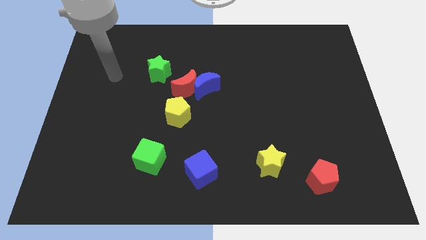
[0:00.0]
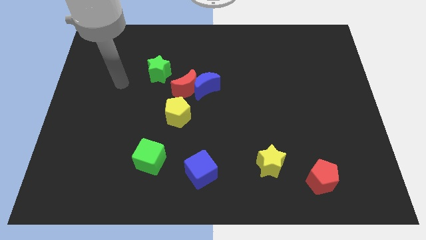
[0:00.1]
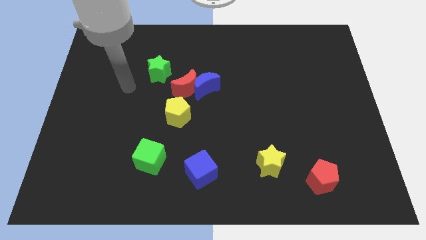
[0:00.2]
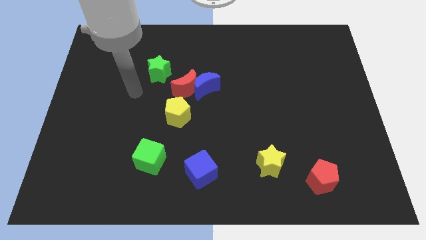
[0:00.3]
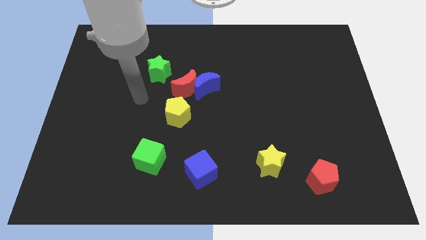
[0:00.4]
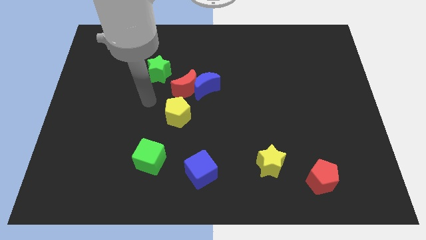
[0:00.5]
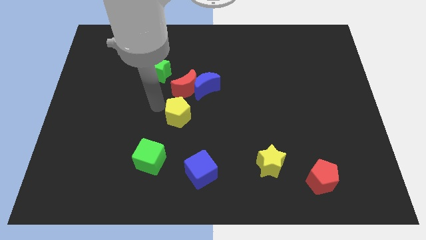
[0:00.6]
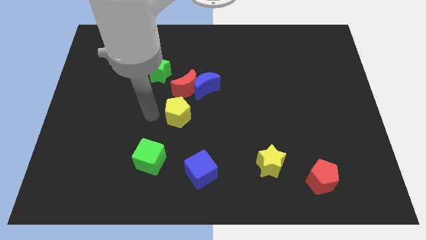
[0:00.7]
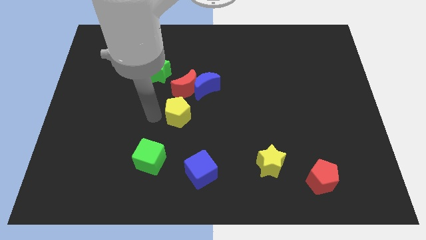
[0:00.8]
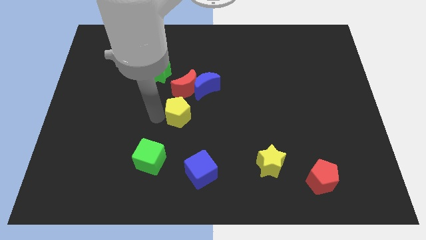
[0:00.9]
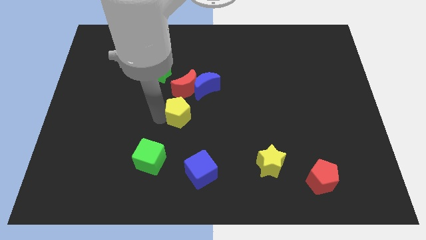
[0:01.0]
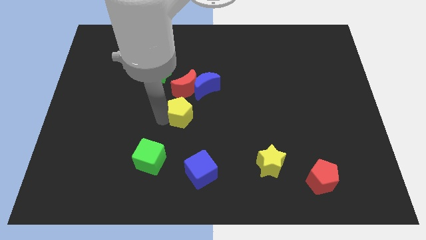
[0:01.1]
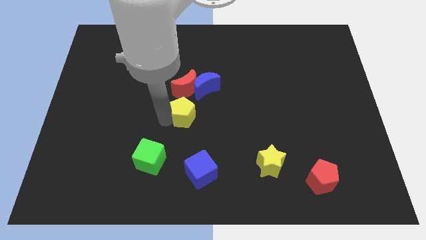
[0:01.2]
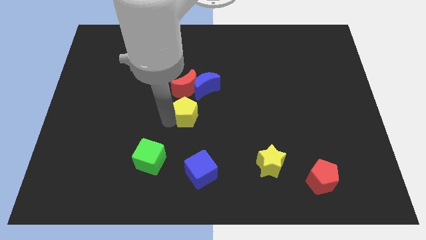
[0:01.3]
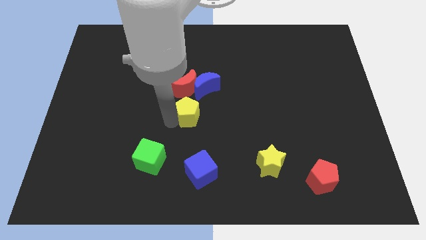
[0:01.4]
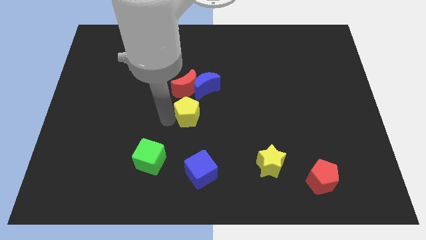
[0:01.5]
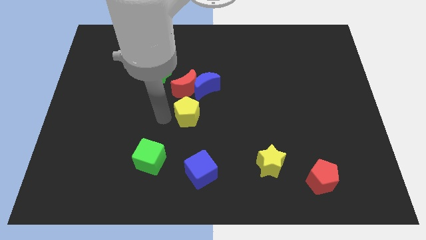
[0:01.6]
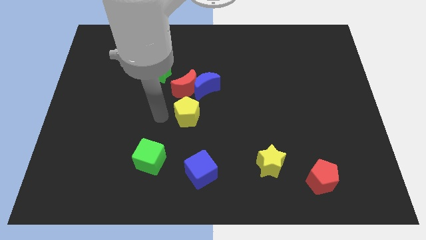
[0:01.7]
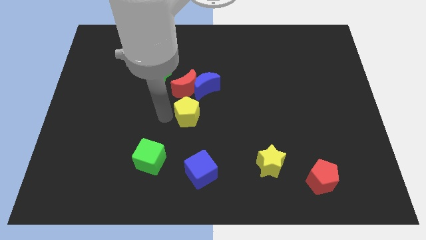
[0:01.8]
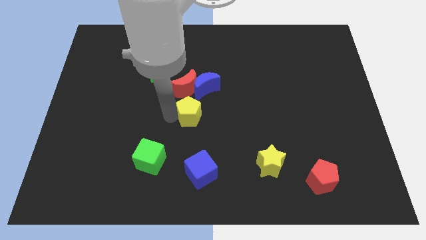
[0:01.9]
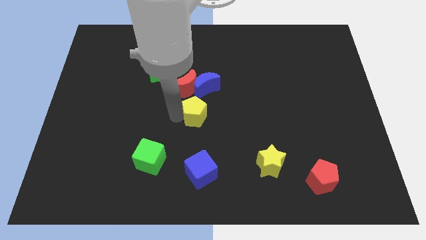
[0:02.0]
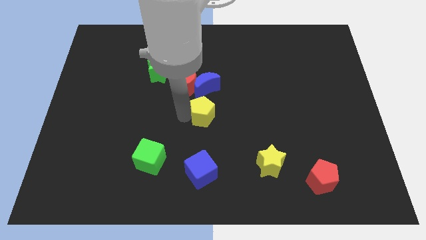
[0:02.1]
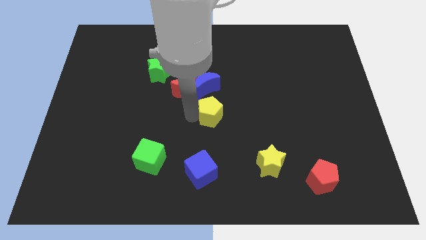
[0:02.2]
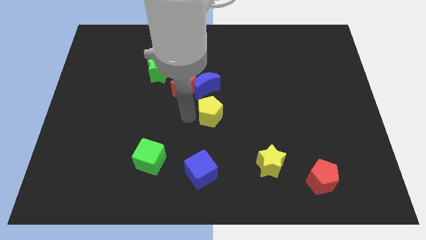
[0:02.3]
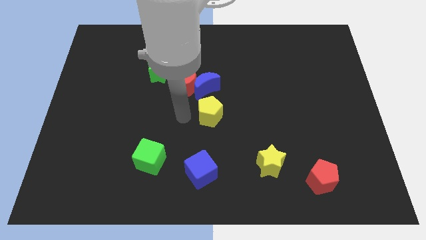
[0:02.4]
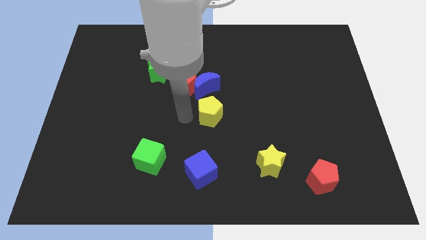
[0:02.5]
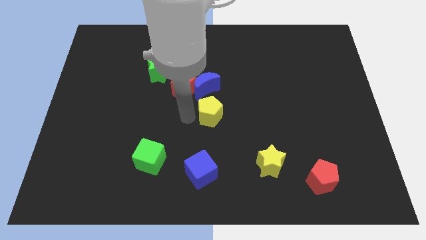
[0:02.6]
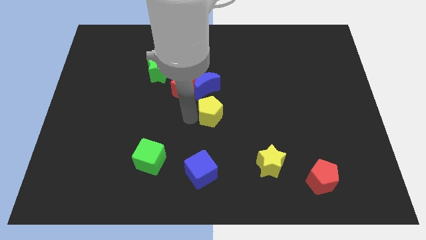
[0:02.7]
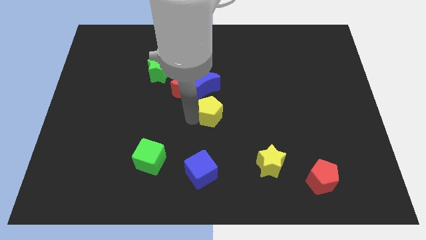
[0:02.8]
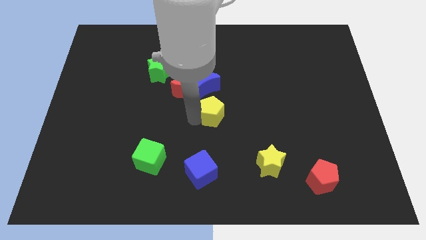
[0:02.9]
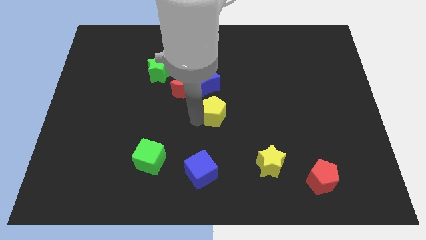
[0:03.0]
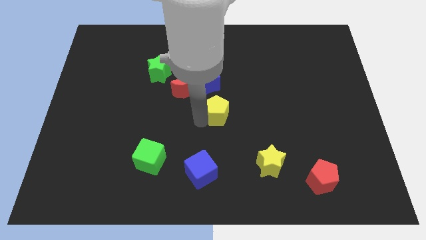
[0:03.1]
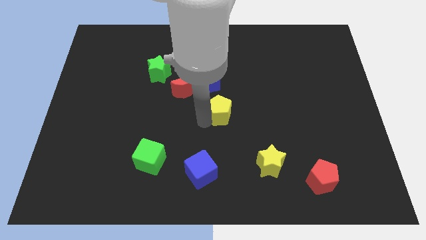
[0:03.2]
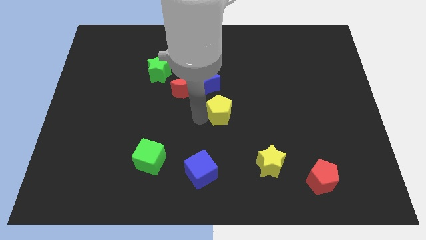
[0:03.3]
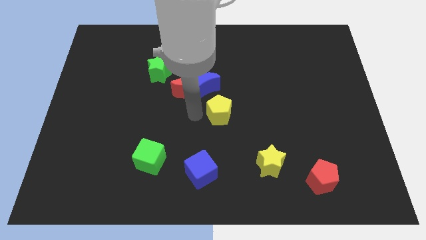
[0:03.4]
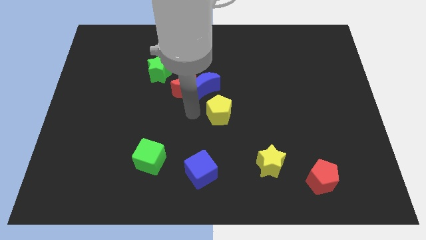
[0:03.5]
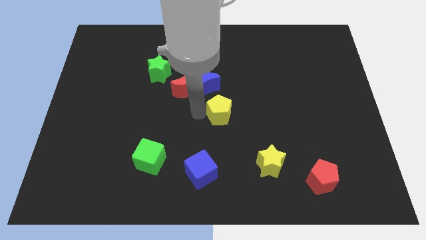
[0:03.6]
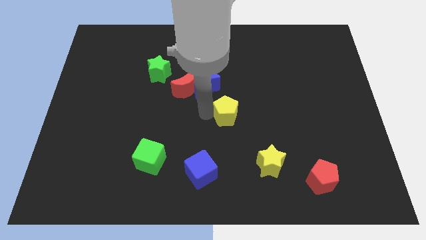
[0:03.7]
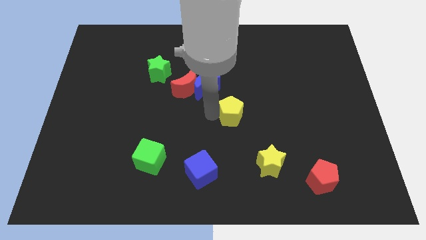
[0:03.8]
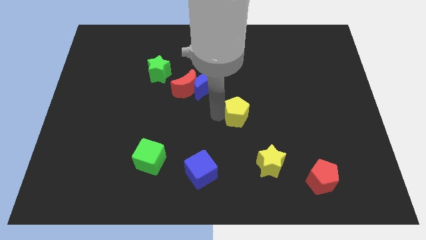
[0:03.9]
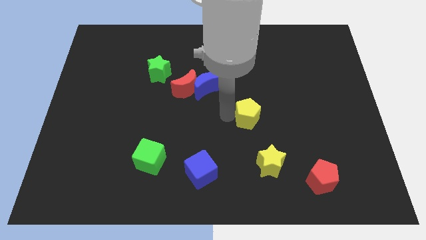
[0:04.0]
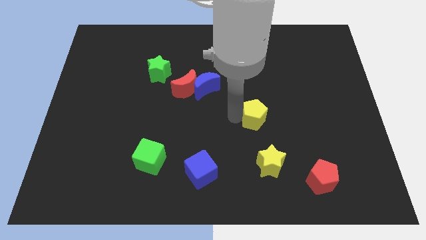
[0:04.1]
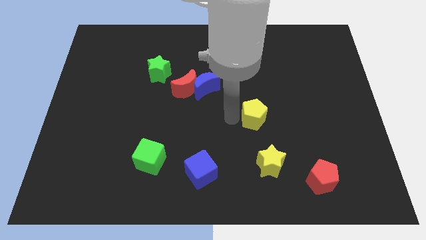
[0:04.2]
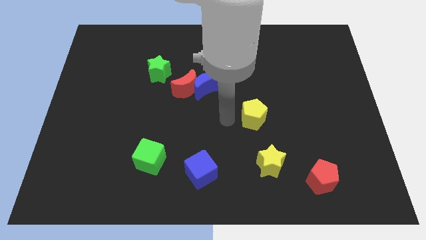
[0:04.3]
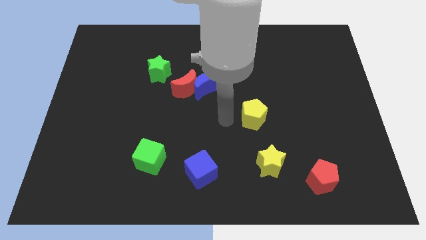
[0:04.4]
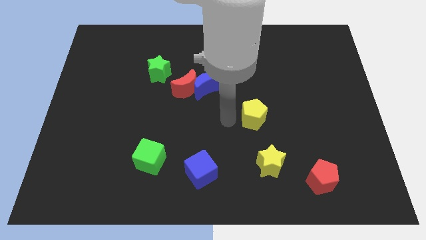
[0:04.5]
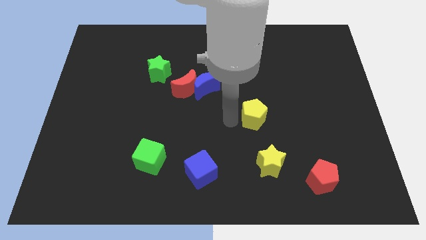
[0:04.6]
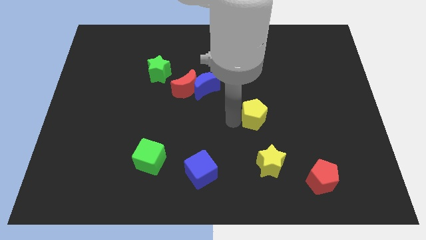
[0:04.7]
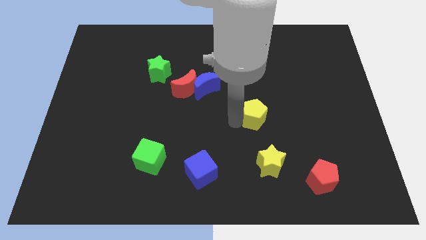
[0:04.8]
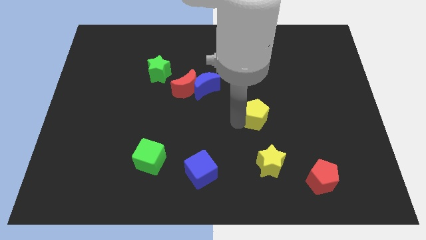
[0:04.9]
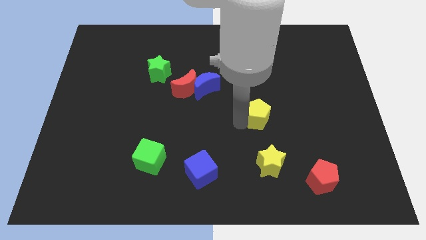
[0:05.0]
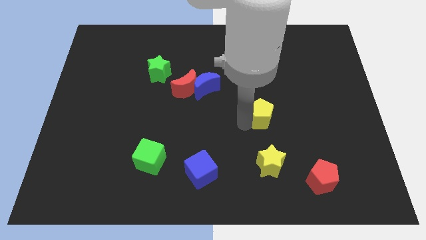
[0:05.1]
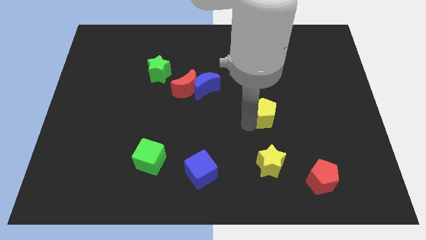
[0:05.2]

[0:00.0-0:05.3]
push the yellow pentagon to the right

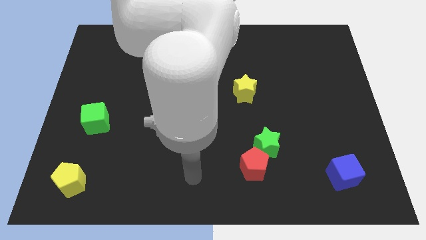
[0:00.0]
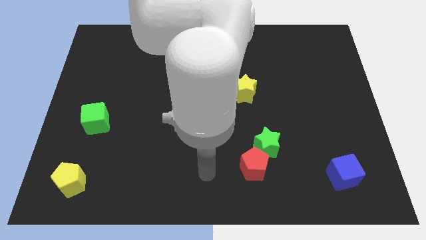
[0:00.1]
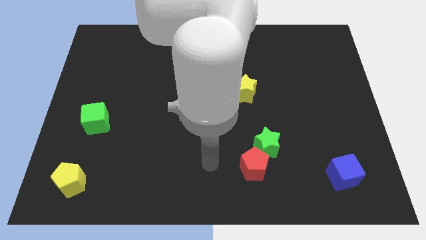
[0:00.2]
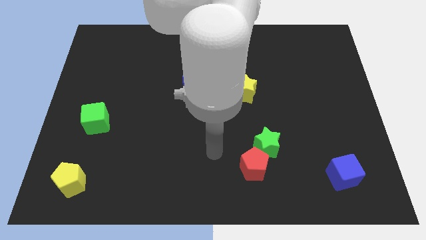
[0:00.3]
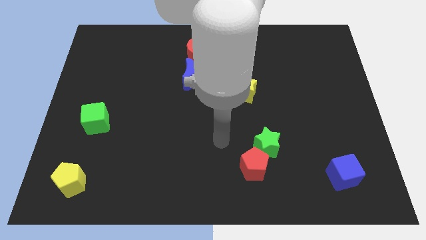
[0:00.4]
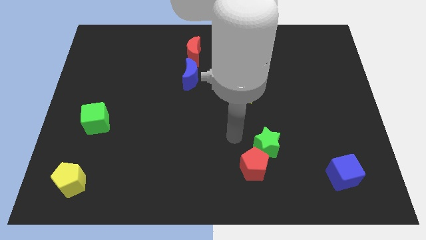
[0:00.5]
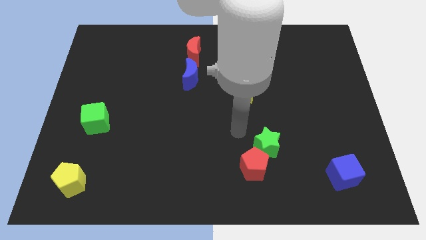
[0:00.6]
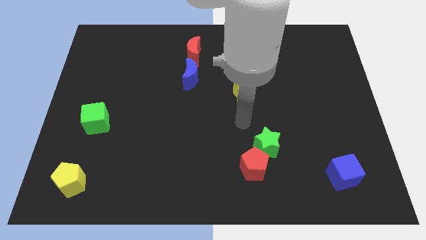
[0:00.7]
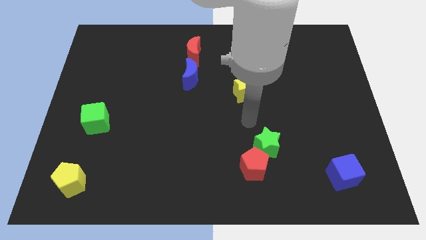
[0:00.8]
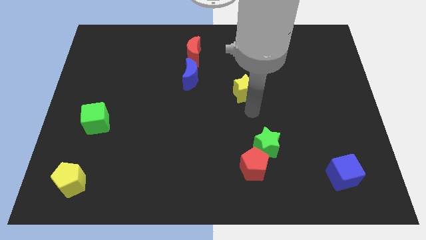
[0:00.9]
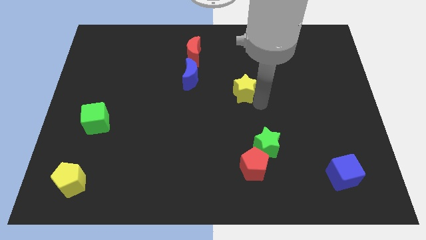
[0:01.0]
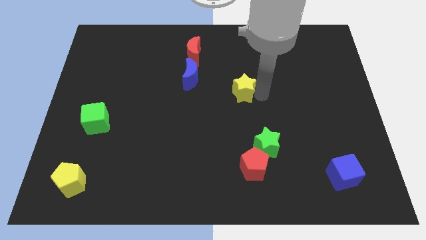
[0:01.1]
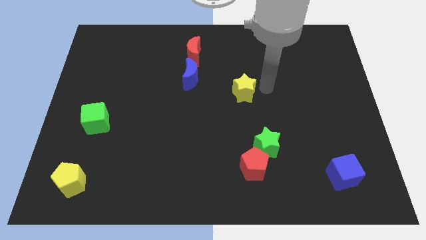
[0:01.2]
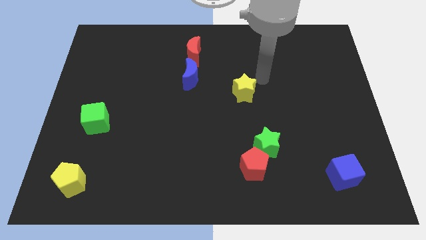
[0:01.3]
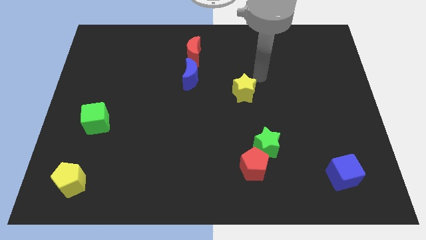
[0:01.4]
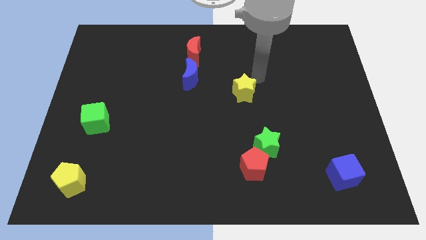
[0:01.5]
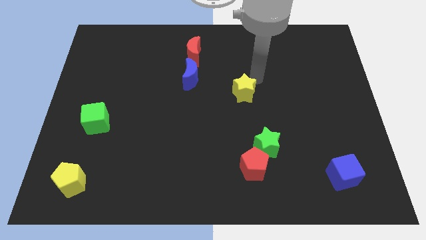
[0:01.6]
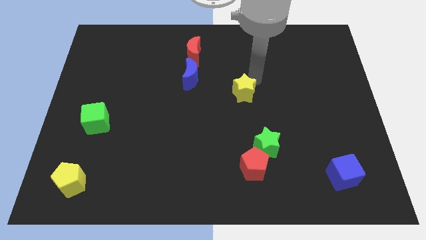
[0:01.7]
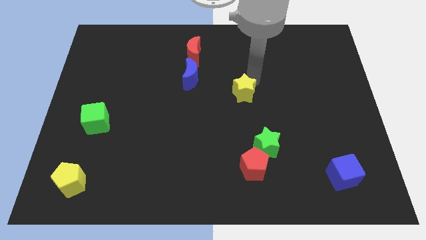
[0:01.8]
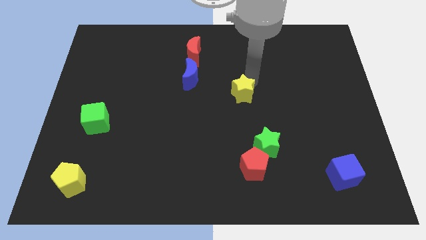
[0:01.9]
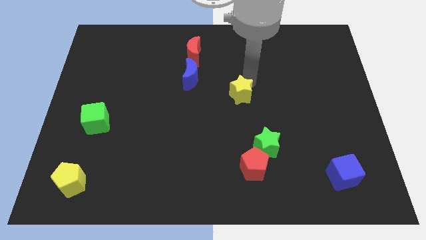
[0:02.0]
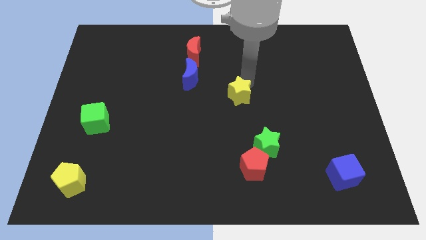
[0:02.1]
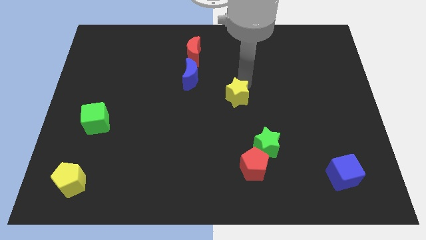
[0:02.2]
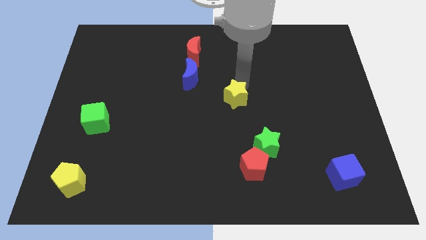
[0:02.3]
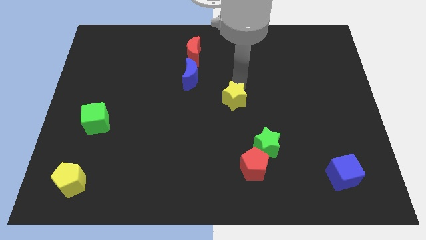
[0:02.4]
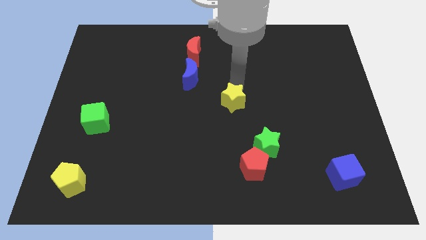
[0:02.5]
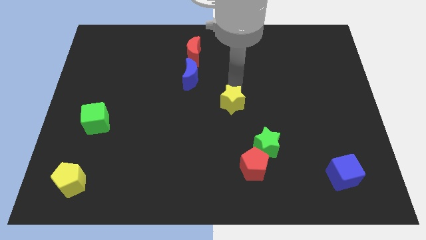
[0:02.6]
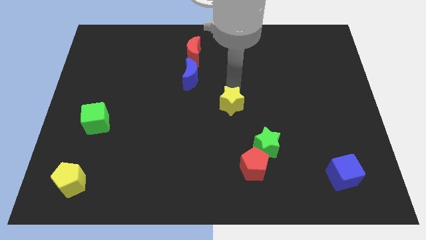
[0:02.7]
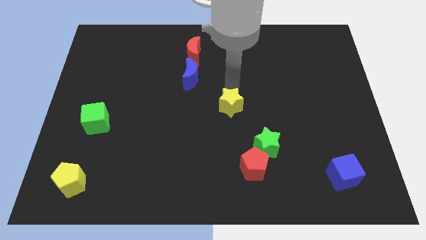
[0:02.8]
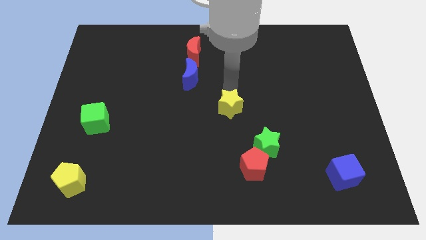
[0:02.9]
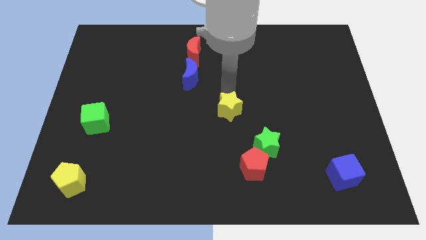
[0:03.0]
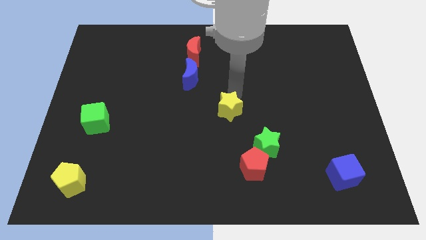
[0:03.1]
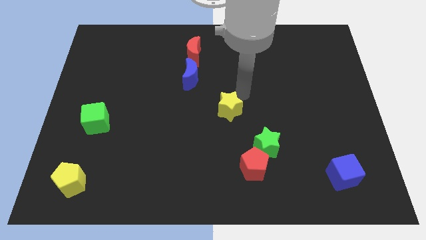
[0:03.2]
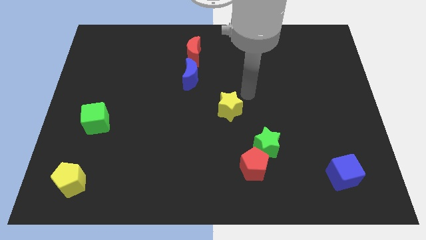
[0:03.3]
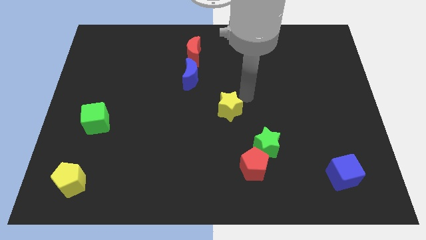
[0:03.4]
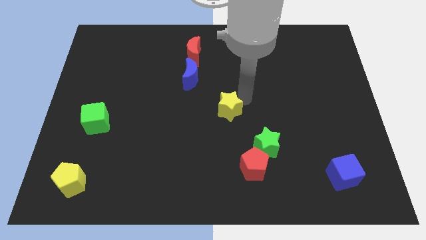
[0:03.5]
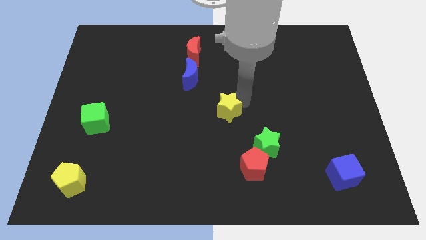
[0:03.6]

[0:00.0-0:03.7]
move the yellow star down and to the left a bit
